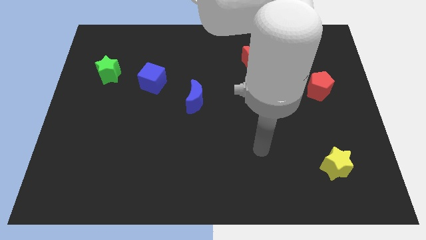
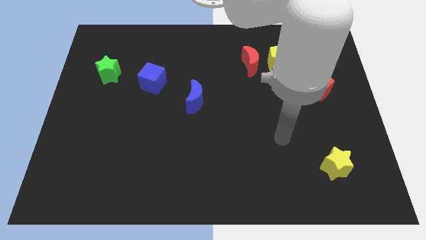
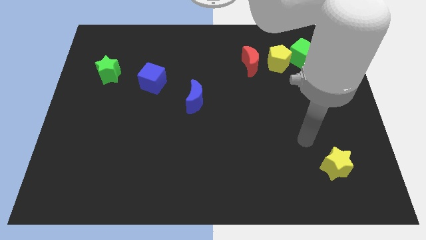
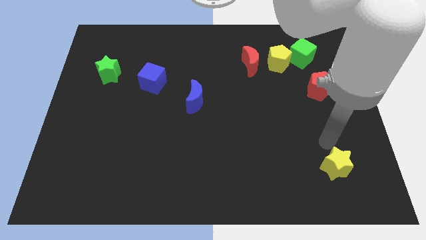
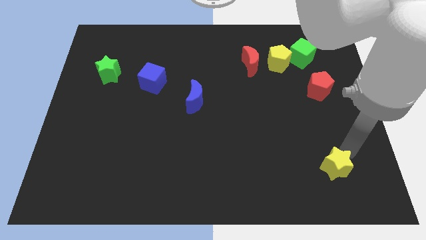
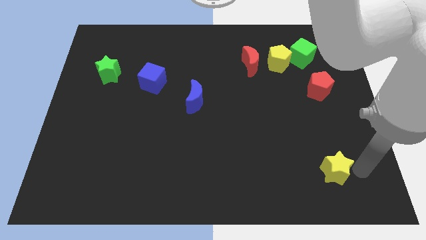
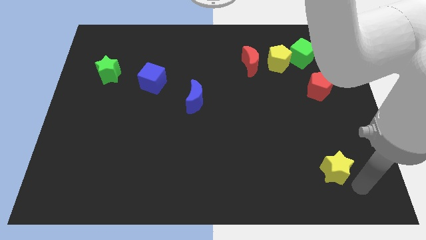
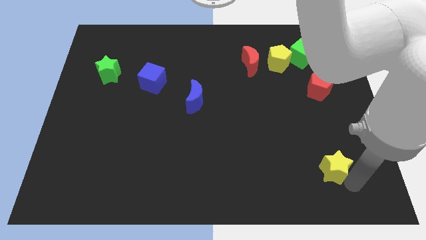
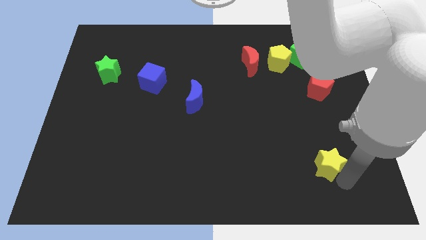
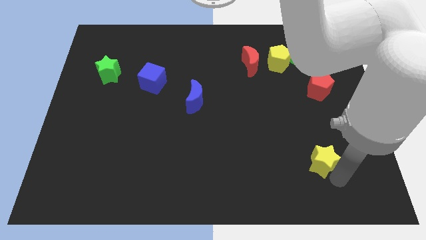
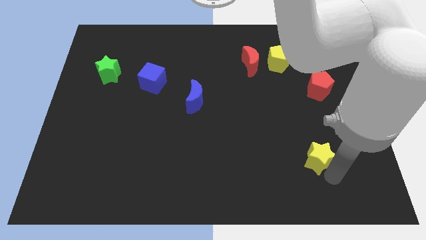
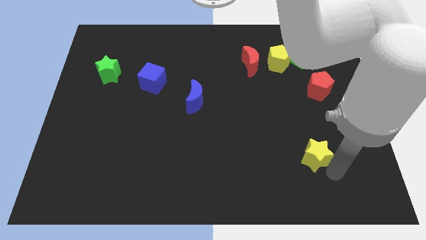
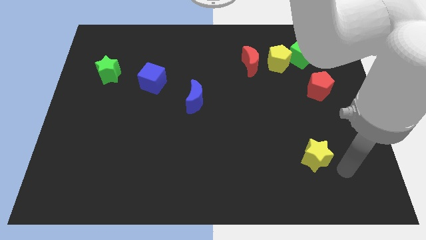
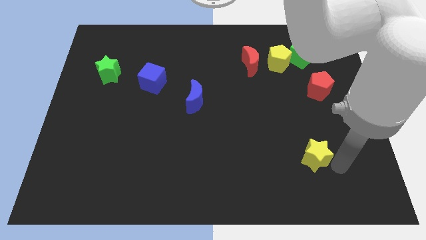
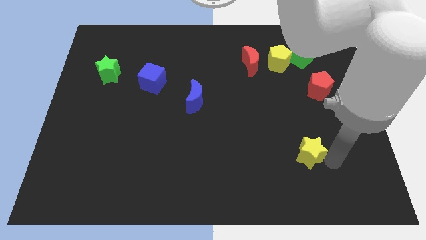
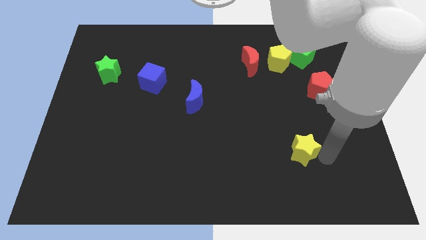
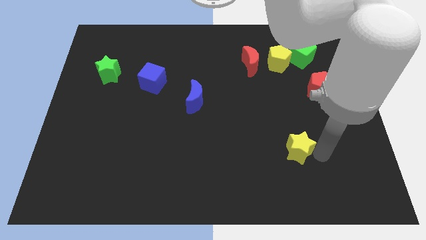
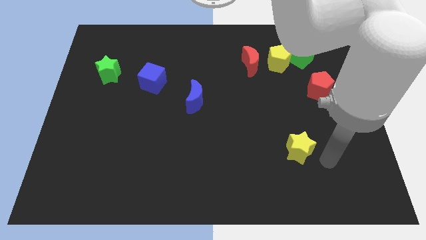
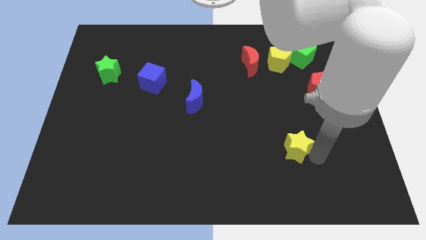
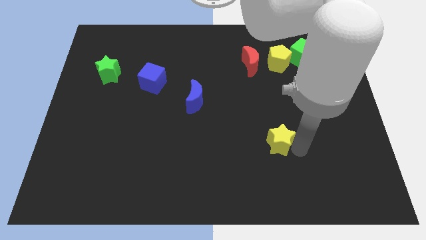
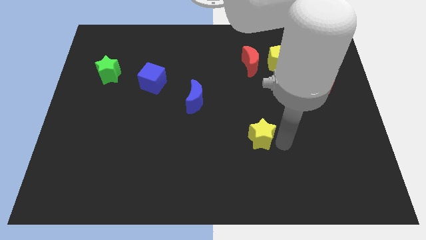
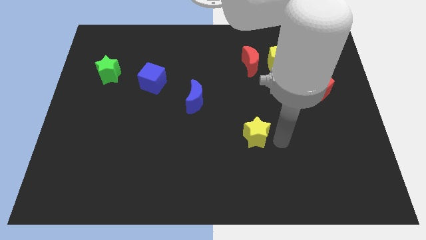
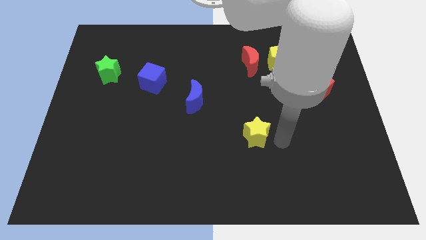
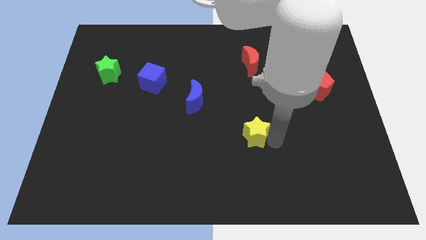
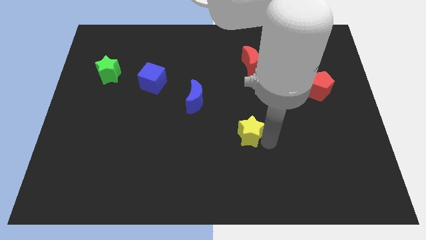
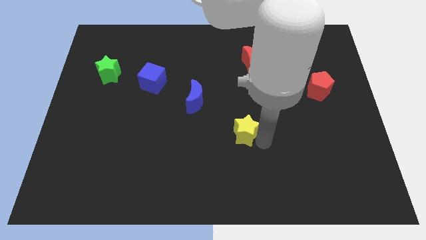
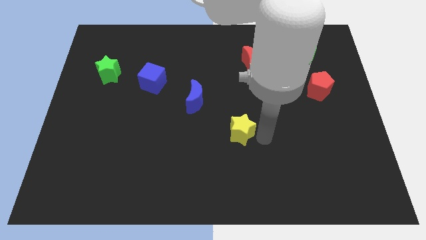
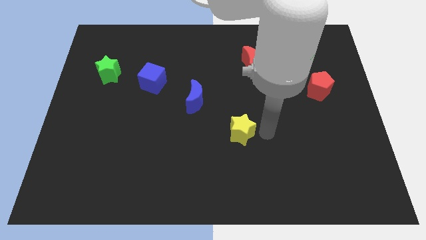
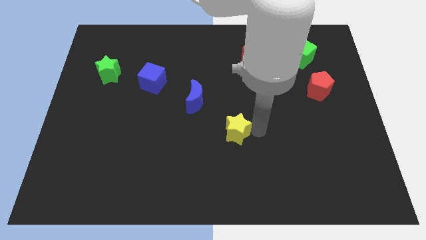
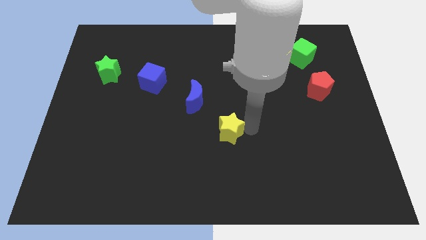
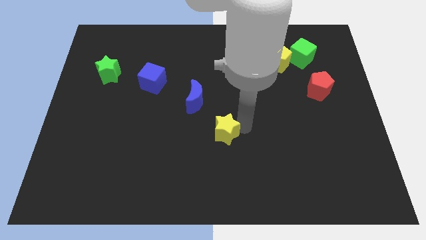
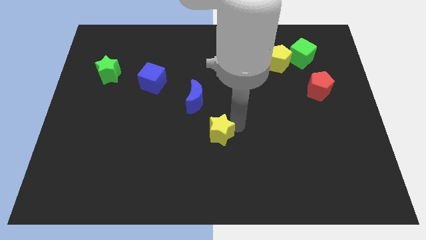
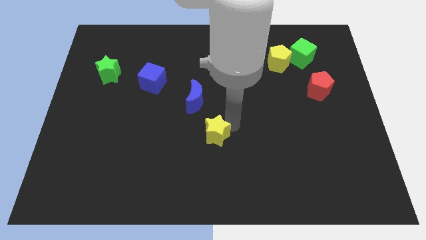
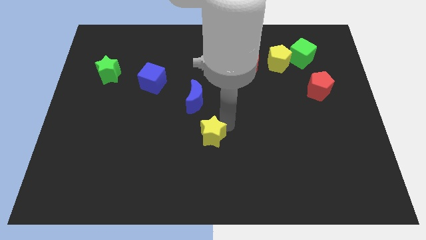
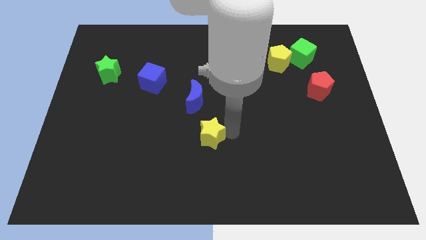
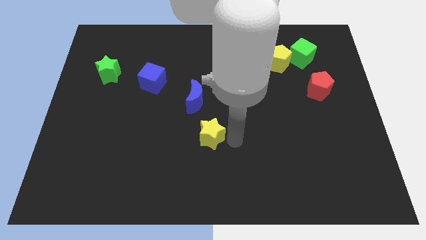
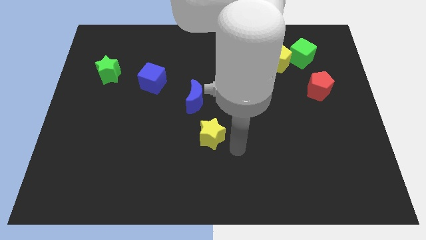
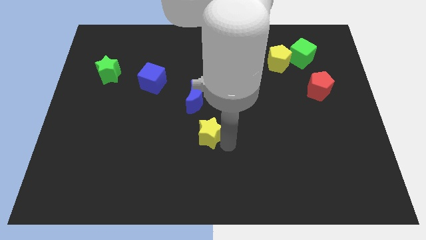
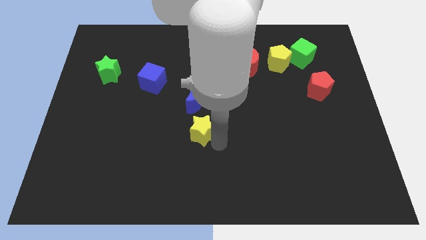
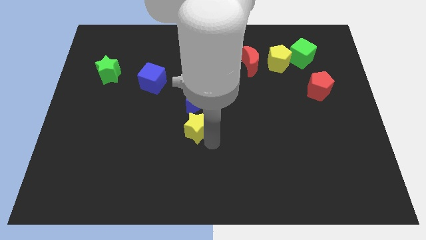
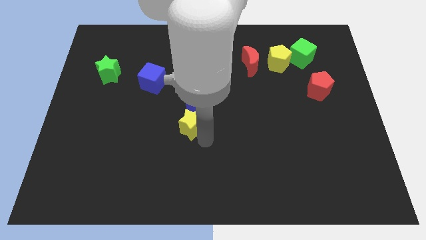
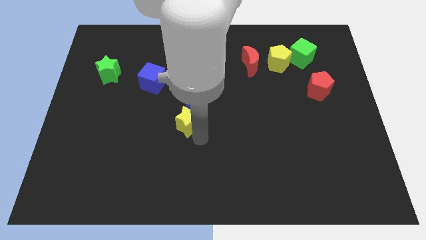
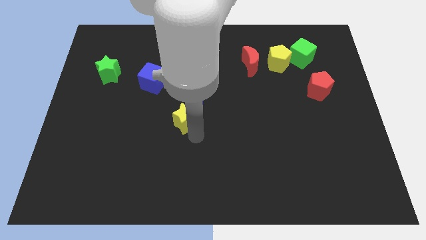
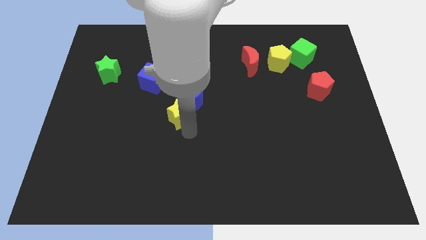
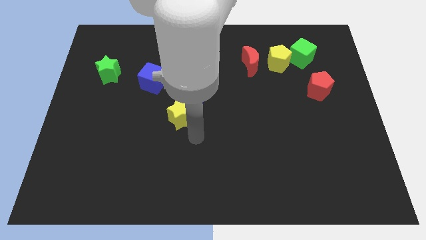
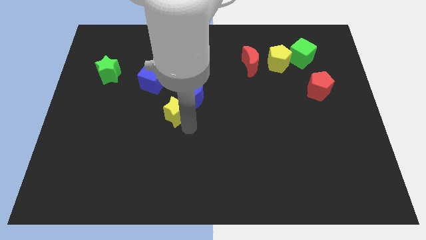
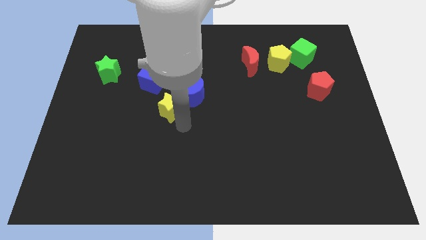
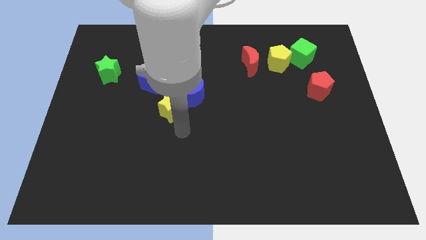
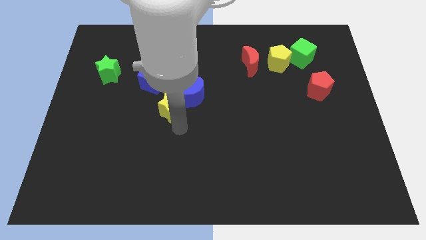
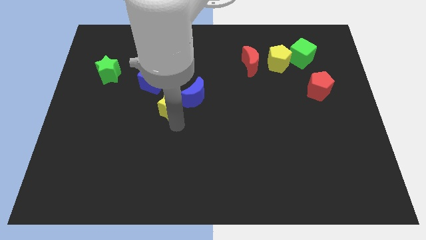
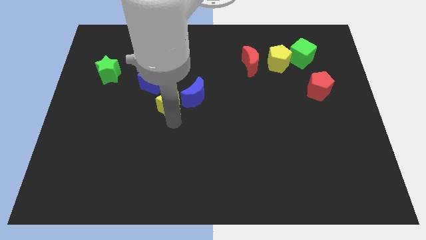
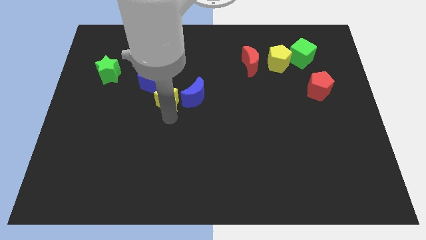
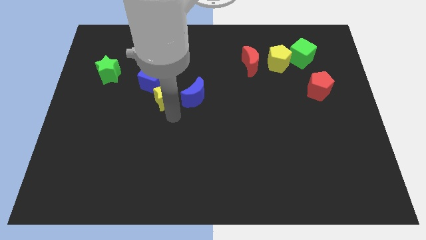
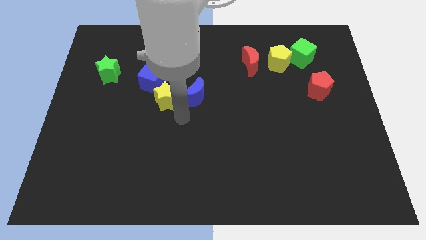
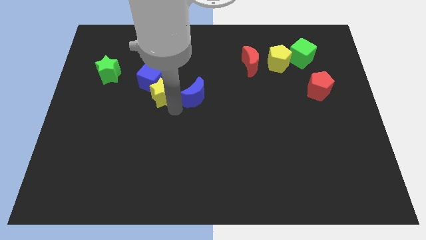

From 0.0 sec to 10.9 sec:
push the yellow star towards the blue cube

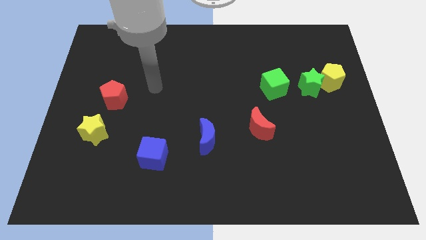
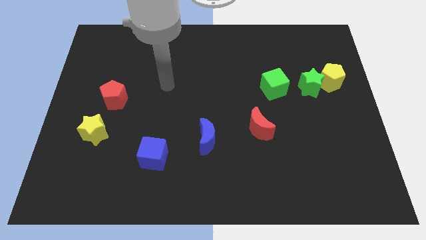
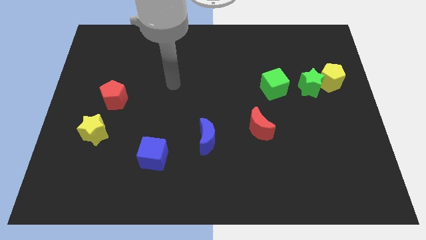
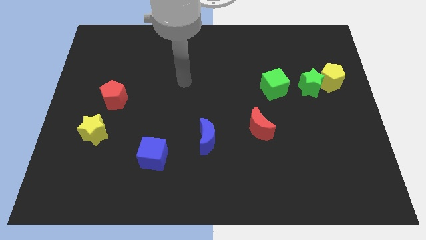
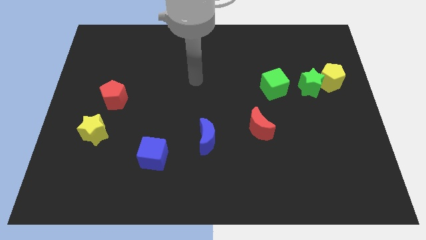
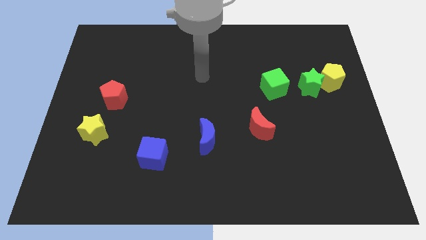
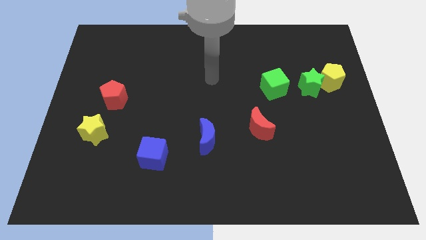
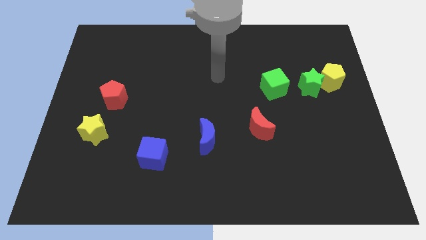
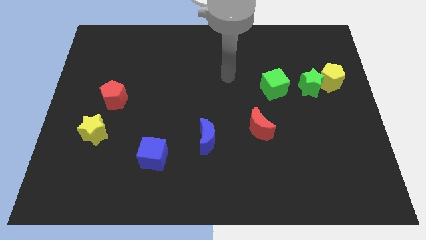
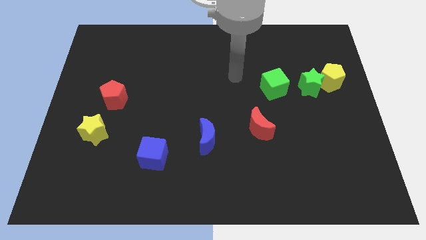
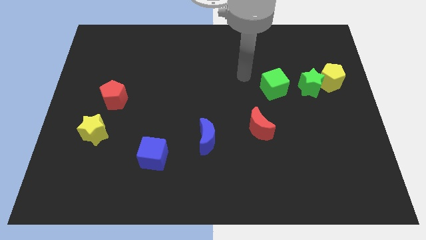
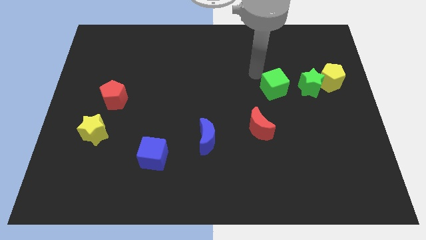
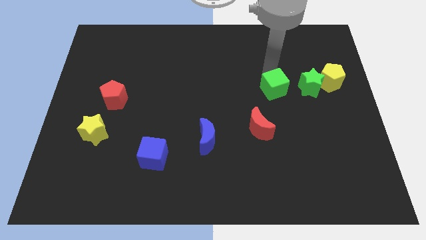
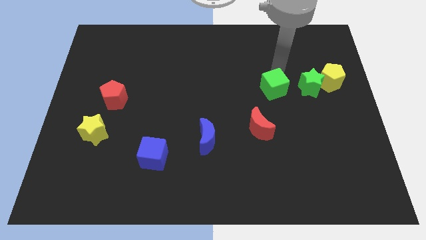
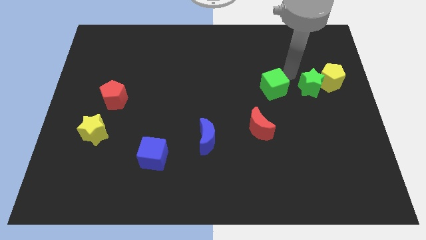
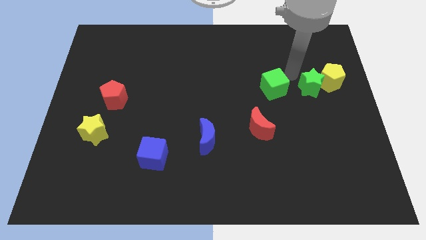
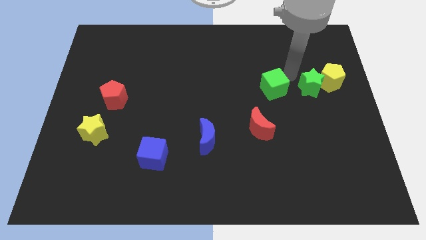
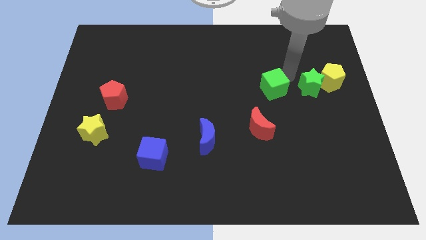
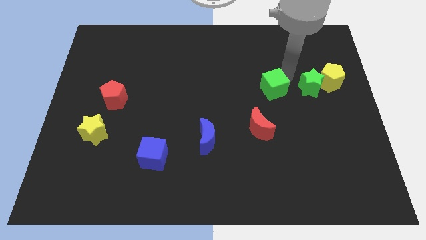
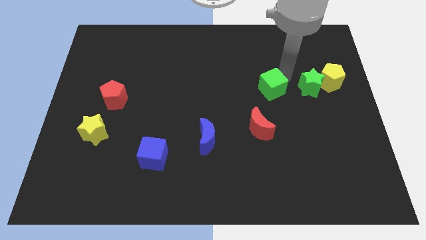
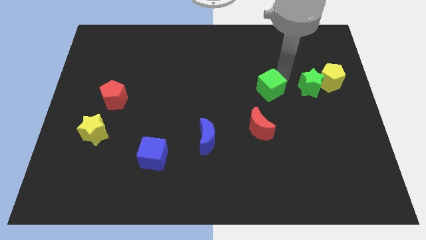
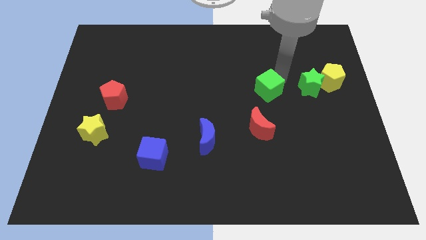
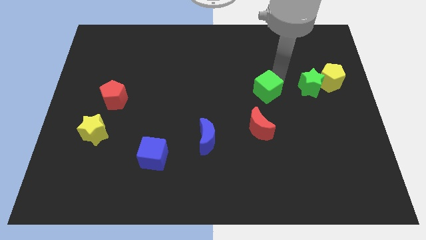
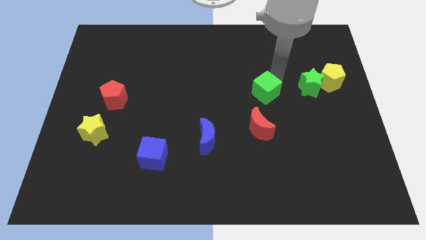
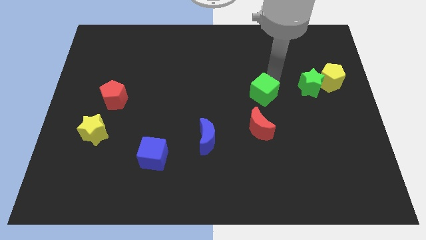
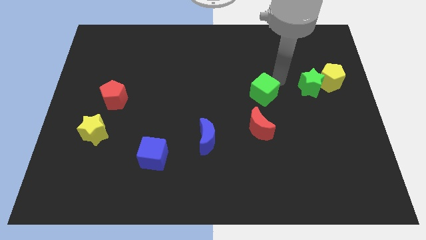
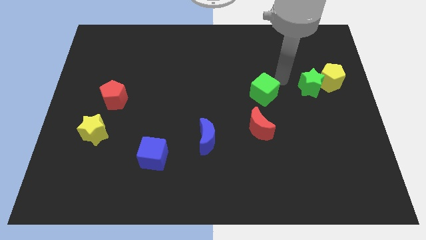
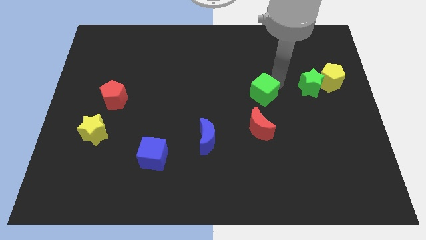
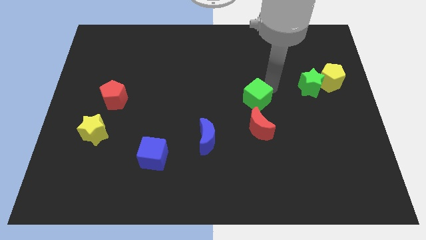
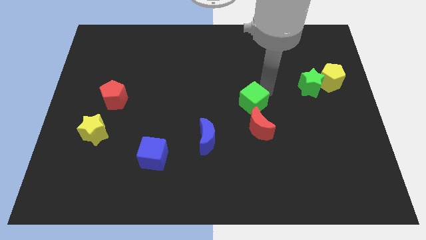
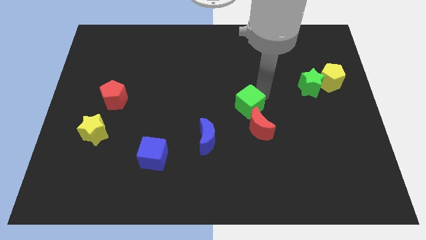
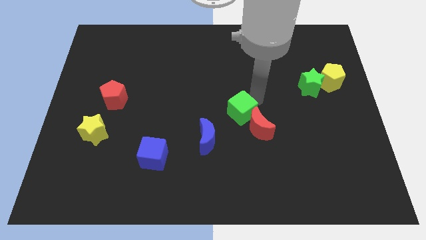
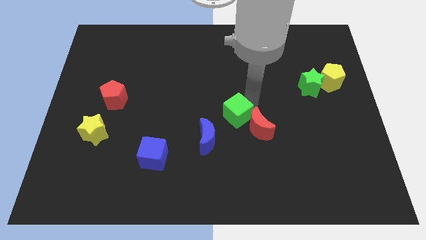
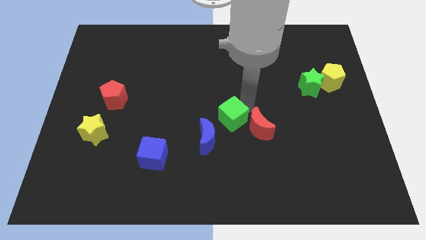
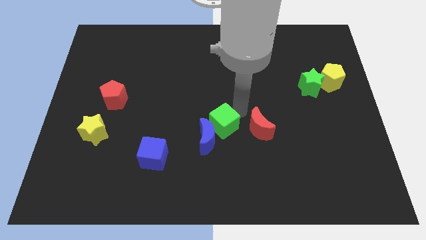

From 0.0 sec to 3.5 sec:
push the green cube towards the blue moon

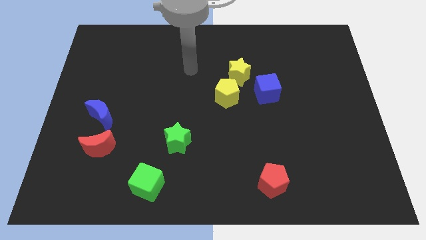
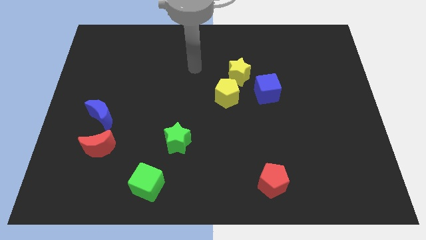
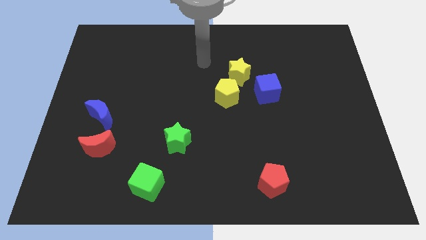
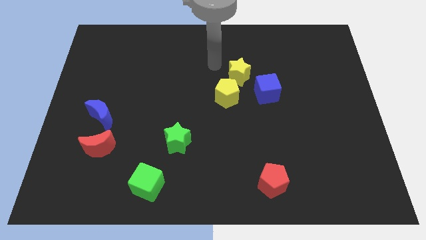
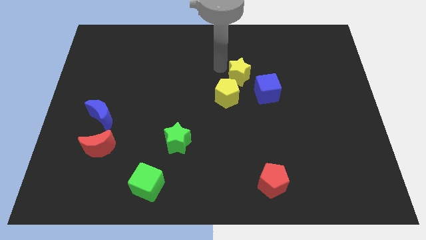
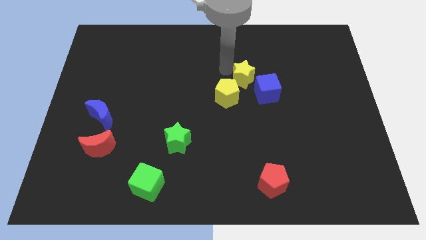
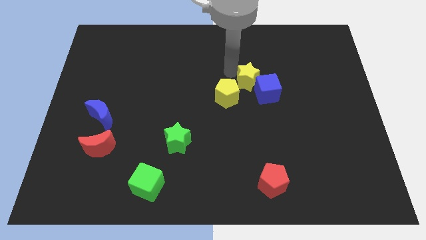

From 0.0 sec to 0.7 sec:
slide the yellow star to the blue cube
